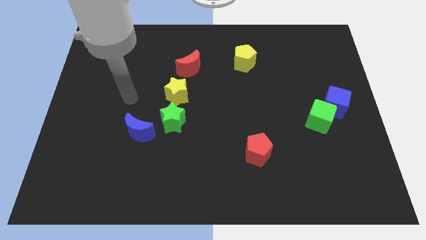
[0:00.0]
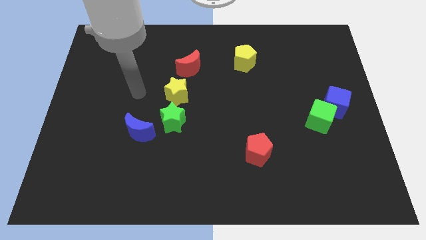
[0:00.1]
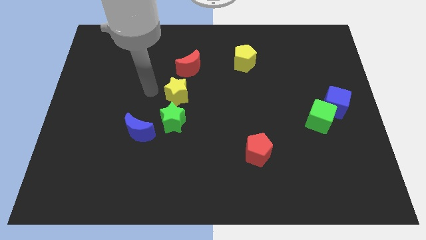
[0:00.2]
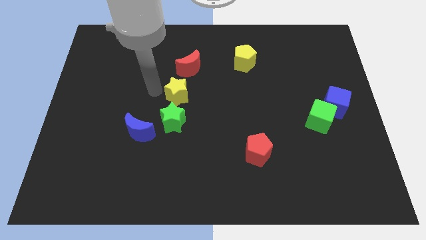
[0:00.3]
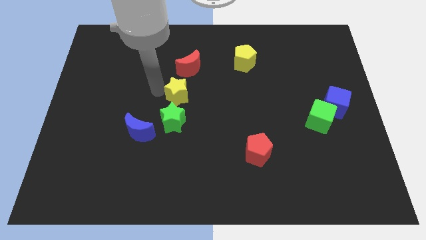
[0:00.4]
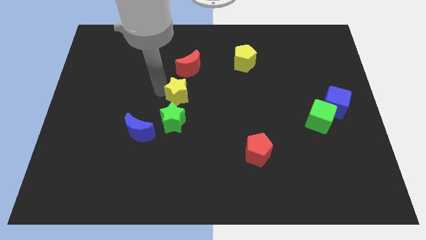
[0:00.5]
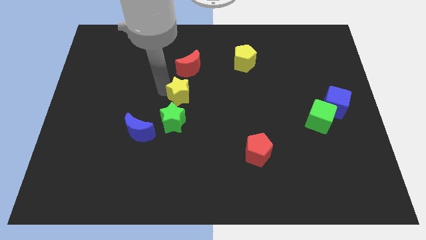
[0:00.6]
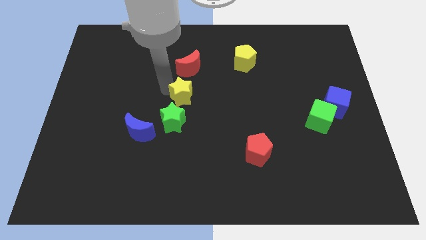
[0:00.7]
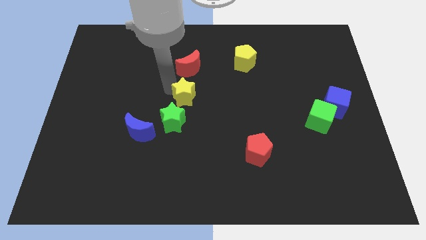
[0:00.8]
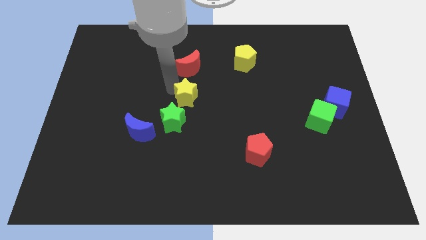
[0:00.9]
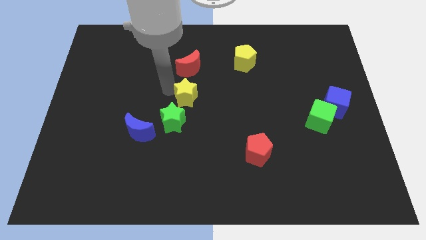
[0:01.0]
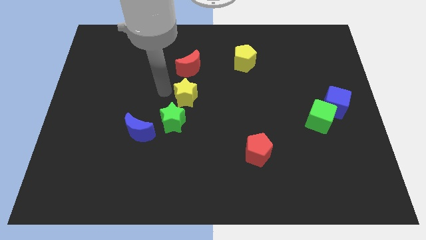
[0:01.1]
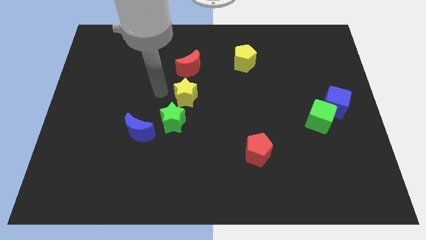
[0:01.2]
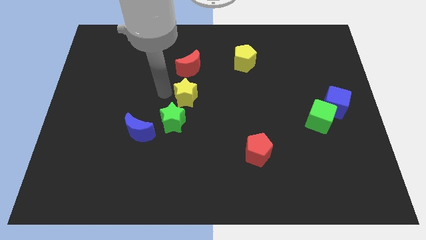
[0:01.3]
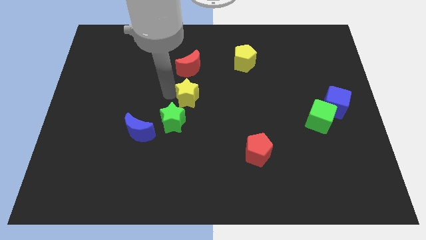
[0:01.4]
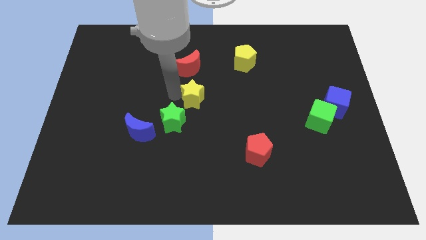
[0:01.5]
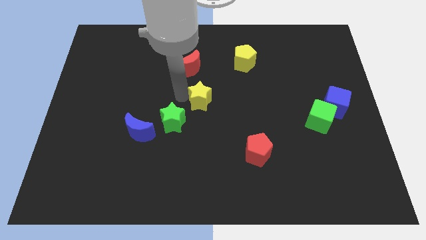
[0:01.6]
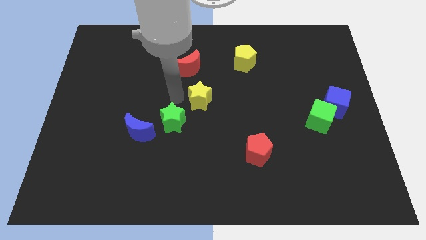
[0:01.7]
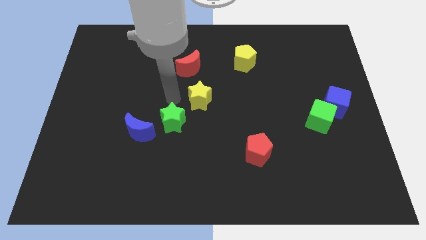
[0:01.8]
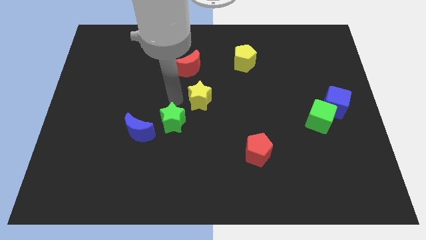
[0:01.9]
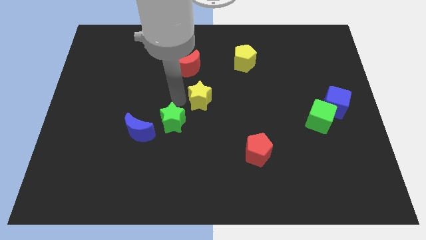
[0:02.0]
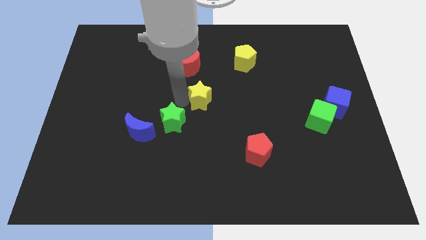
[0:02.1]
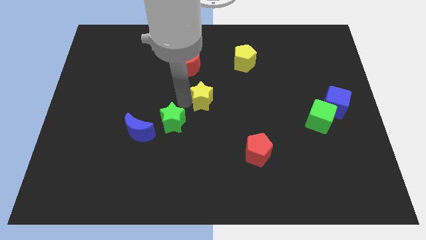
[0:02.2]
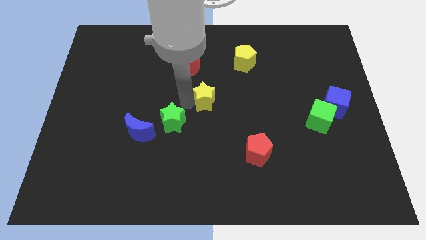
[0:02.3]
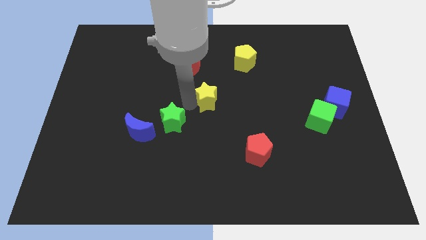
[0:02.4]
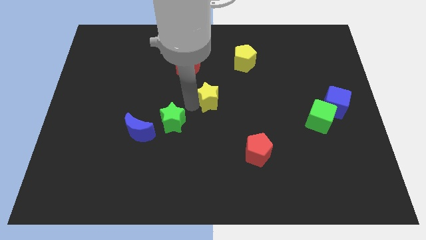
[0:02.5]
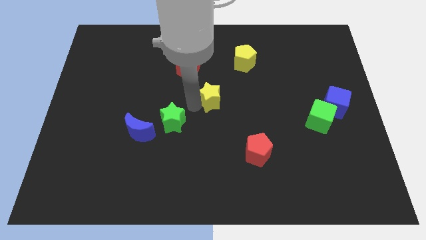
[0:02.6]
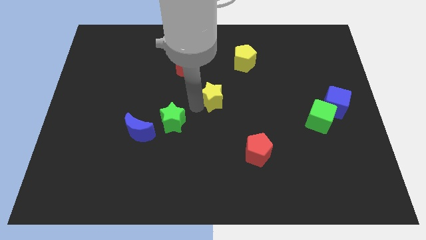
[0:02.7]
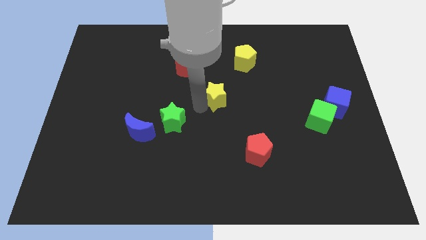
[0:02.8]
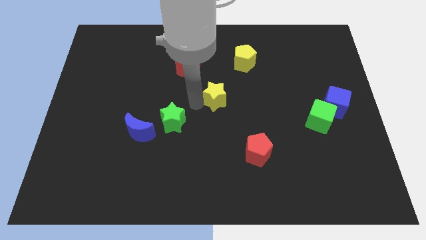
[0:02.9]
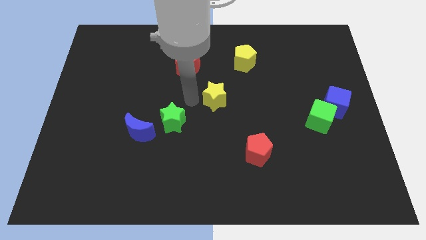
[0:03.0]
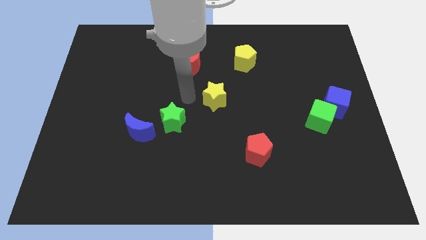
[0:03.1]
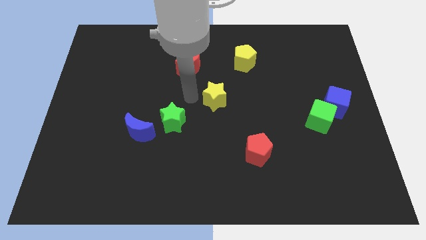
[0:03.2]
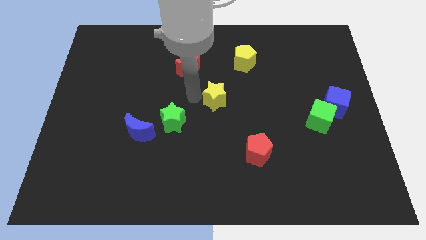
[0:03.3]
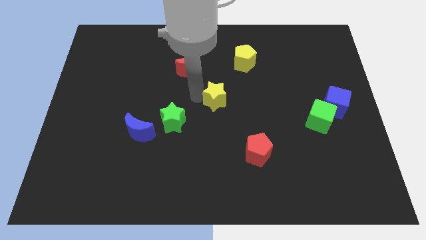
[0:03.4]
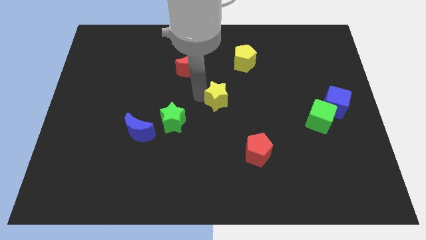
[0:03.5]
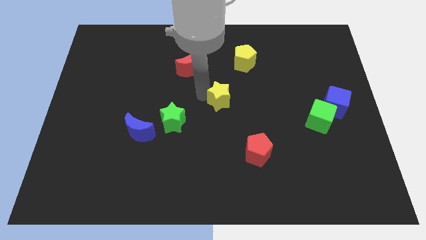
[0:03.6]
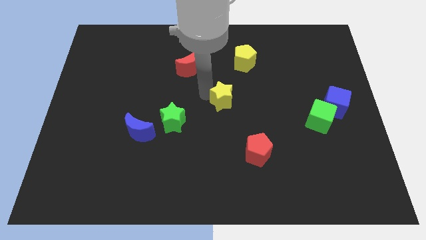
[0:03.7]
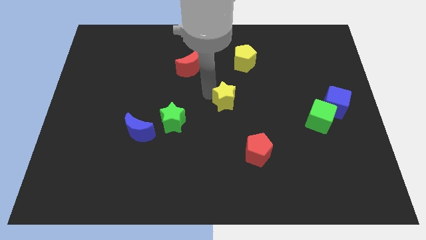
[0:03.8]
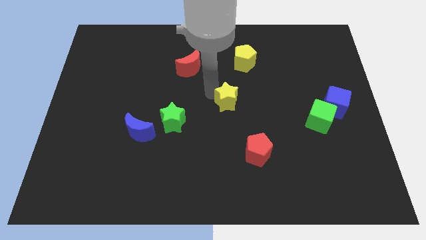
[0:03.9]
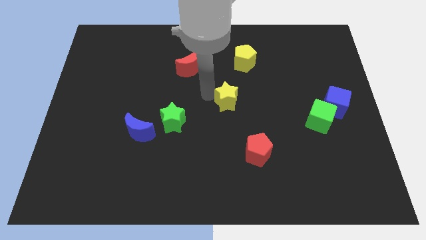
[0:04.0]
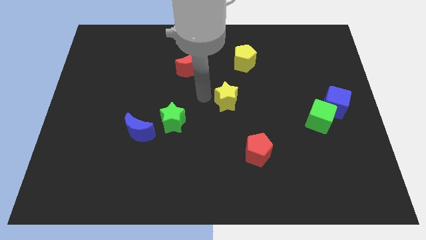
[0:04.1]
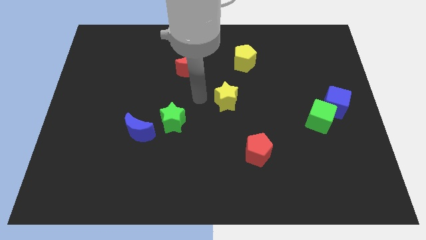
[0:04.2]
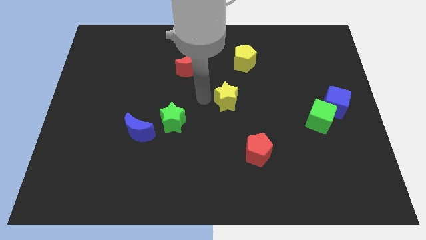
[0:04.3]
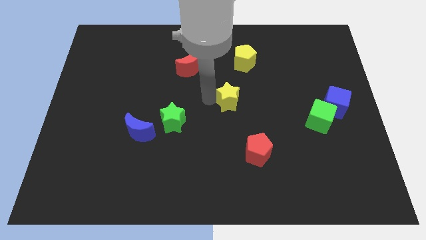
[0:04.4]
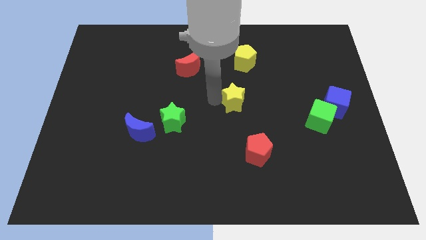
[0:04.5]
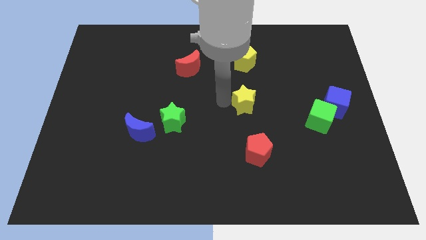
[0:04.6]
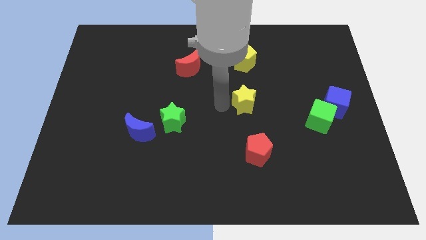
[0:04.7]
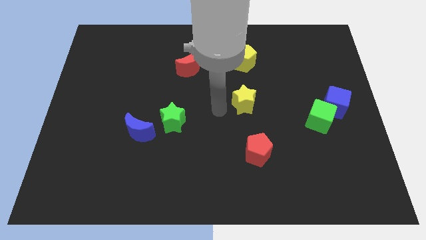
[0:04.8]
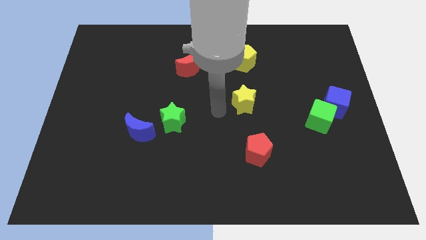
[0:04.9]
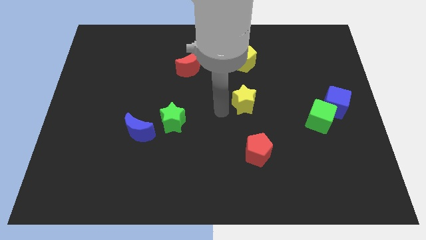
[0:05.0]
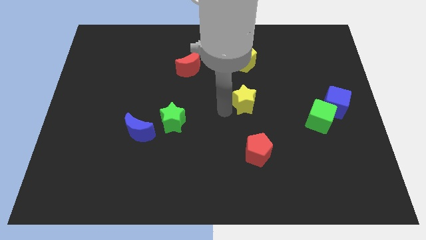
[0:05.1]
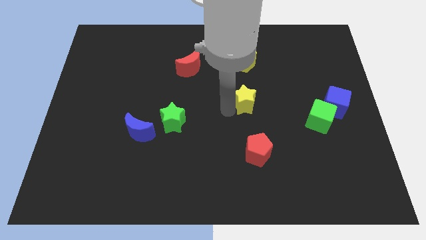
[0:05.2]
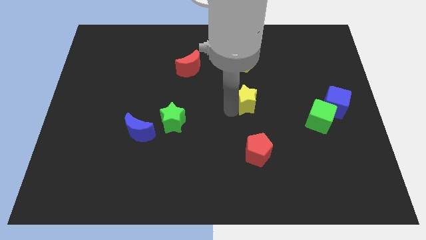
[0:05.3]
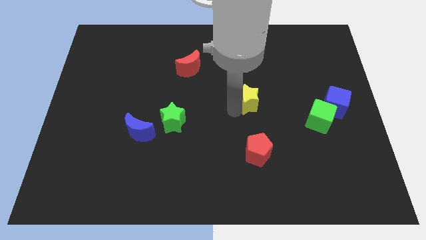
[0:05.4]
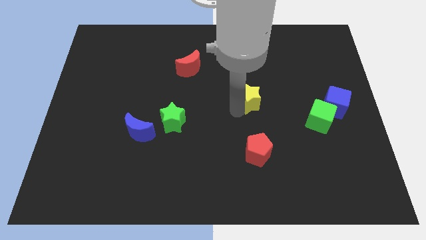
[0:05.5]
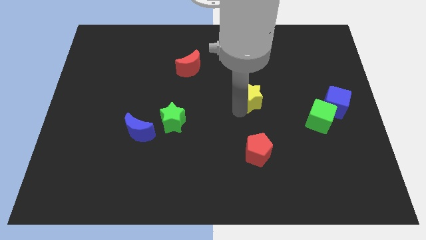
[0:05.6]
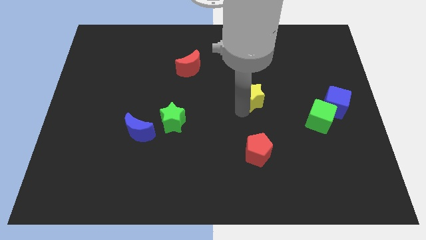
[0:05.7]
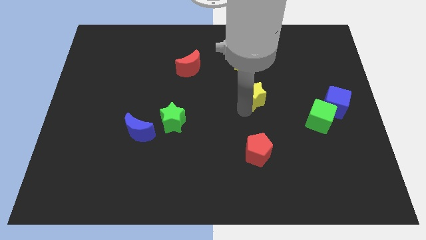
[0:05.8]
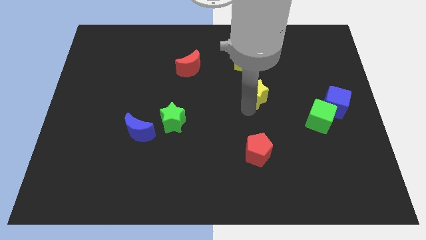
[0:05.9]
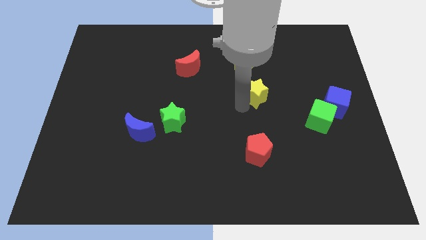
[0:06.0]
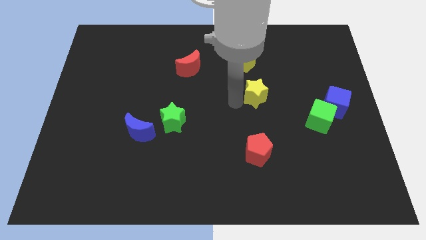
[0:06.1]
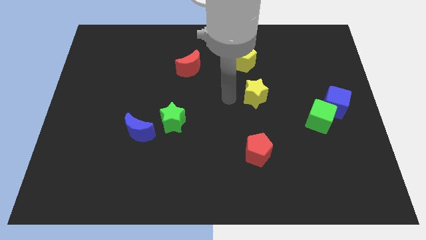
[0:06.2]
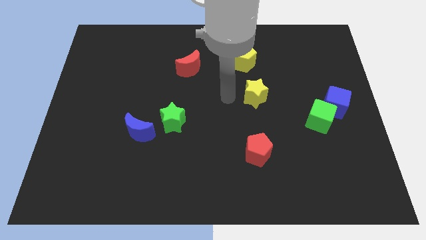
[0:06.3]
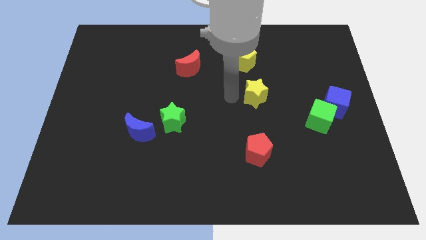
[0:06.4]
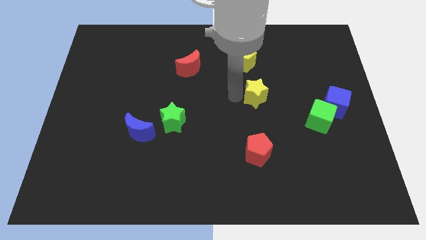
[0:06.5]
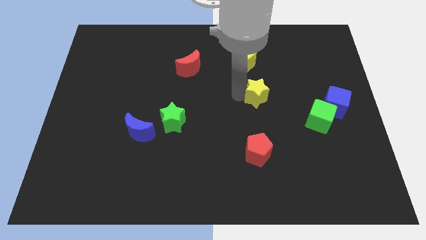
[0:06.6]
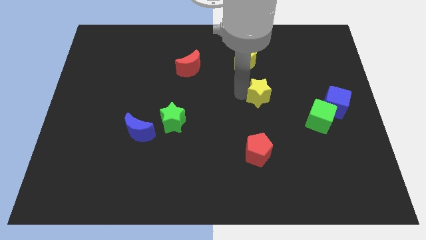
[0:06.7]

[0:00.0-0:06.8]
push the yellow star to the right

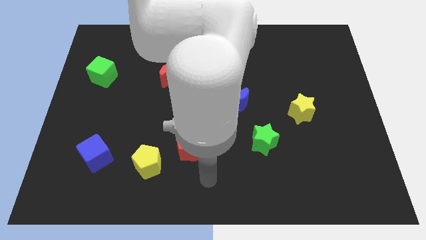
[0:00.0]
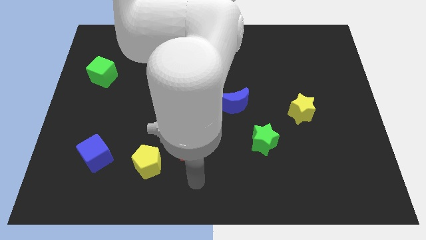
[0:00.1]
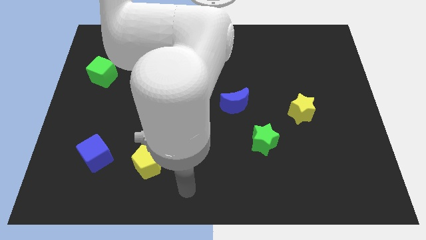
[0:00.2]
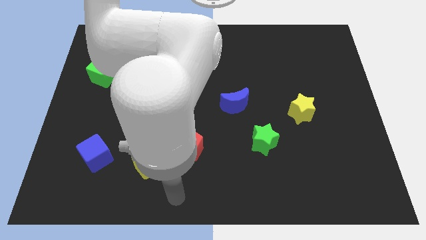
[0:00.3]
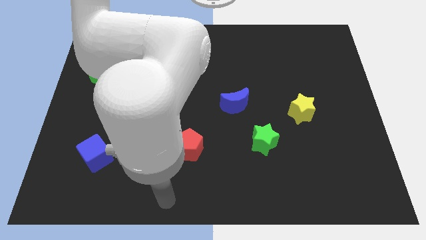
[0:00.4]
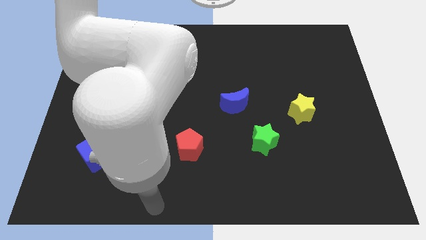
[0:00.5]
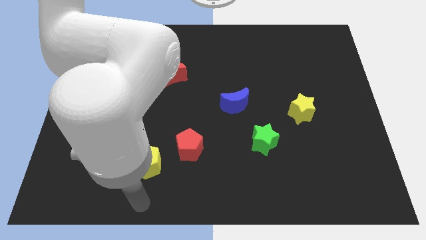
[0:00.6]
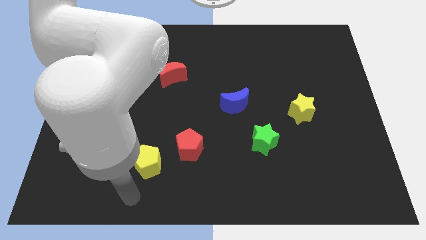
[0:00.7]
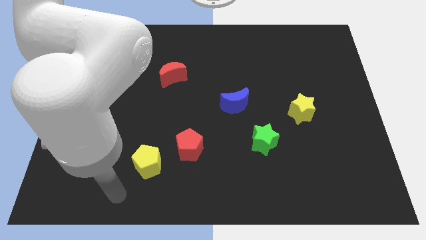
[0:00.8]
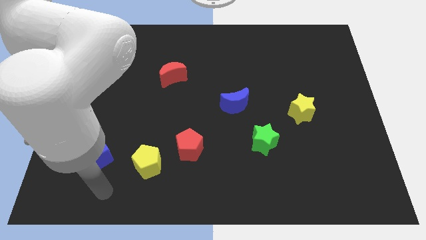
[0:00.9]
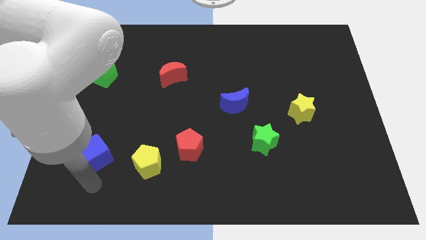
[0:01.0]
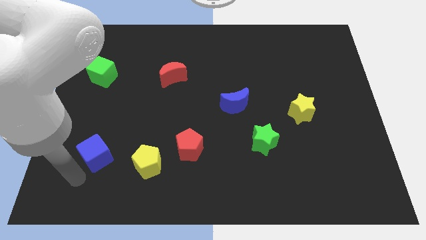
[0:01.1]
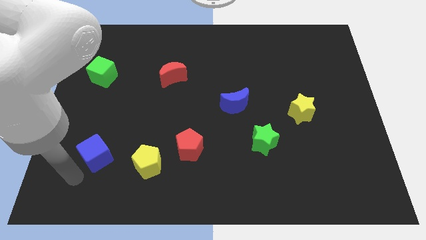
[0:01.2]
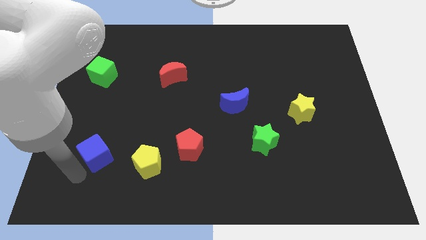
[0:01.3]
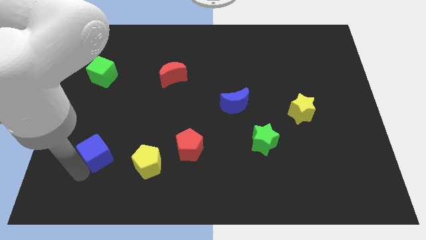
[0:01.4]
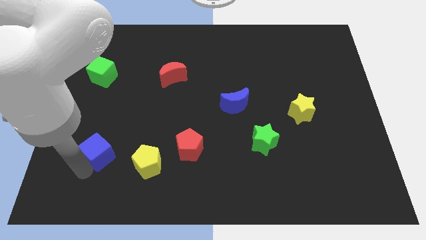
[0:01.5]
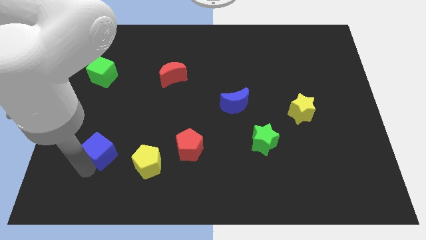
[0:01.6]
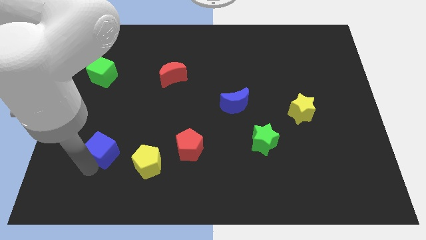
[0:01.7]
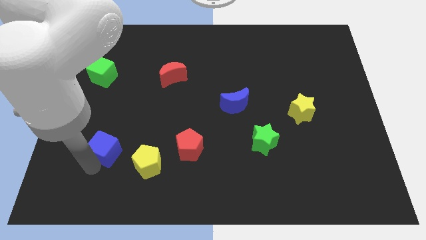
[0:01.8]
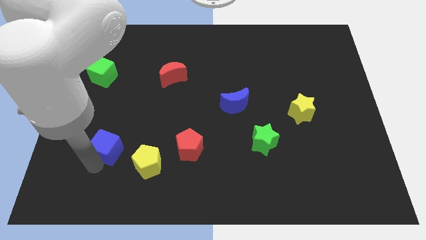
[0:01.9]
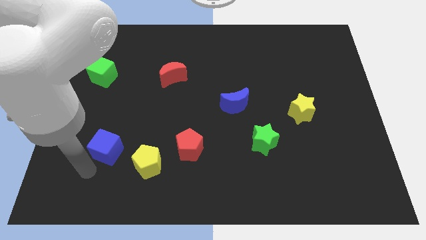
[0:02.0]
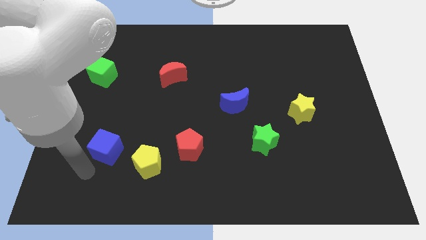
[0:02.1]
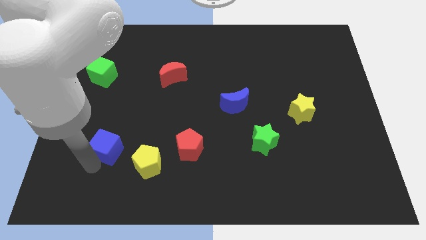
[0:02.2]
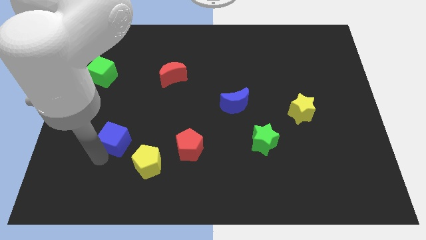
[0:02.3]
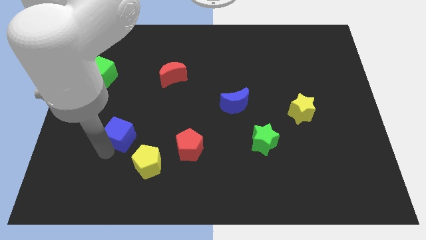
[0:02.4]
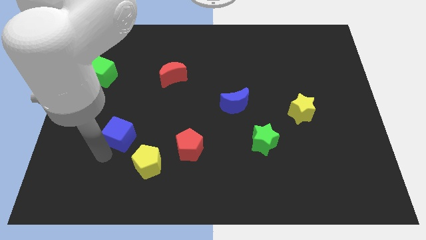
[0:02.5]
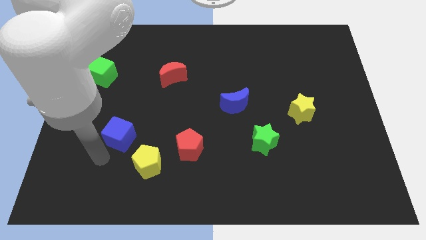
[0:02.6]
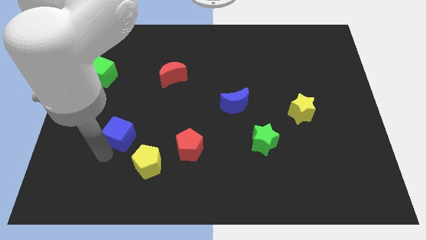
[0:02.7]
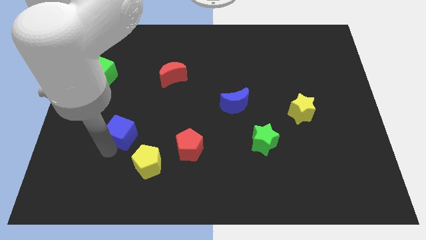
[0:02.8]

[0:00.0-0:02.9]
push the blue cube diagonally up and to the right somewhat
